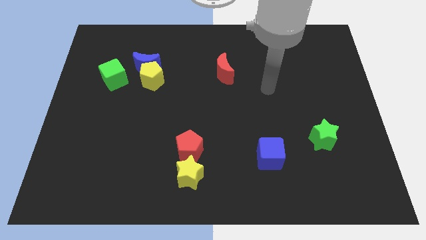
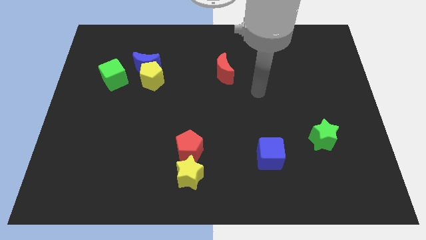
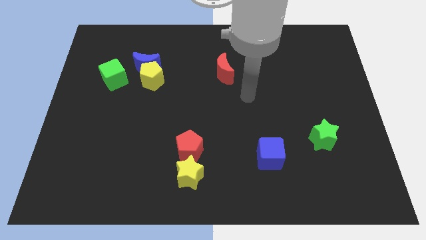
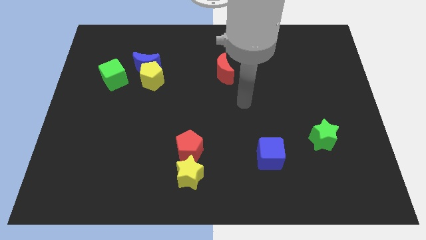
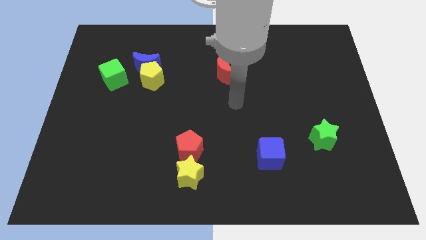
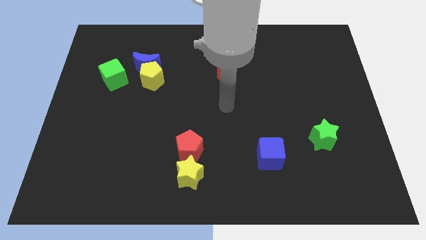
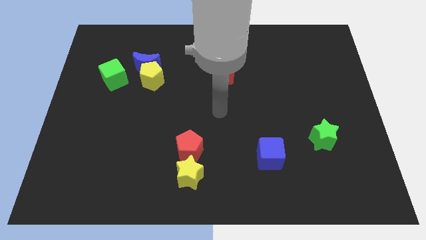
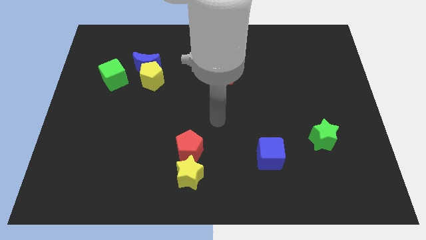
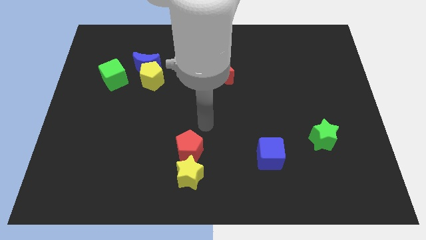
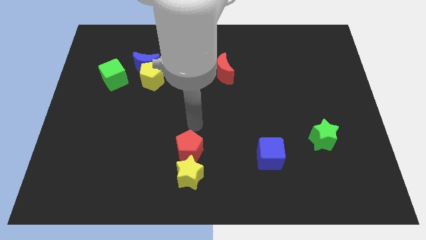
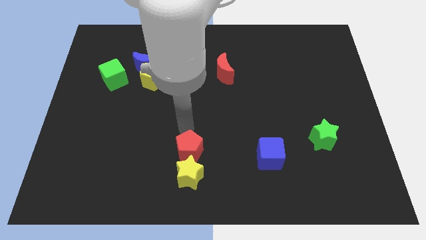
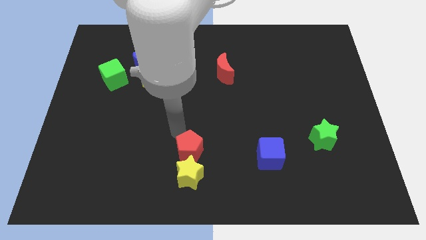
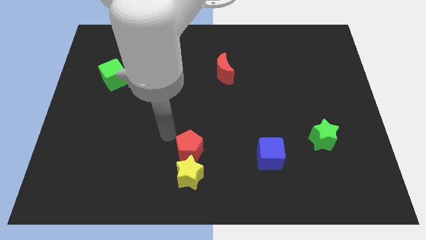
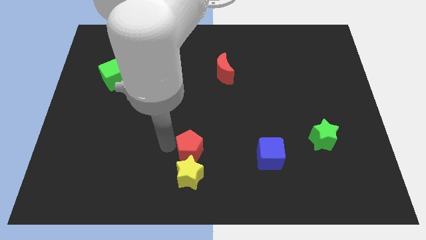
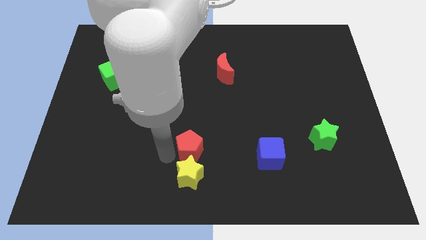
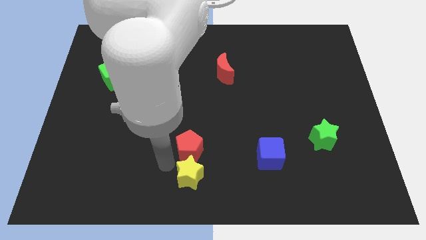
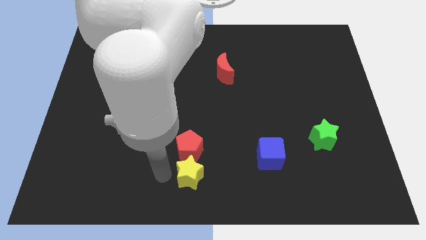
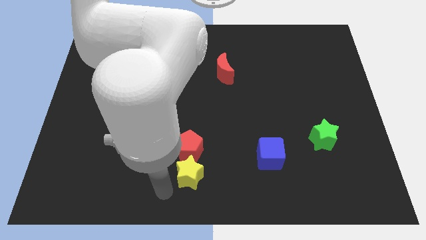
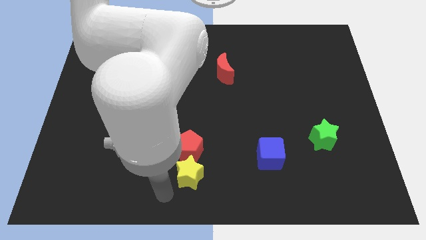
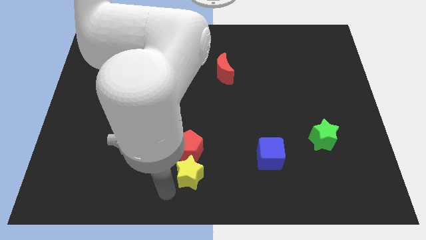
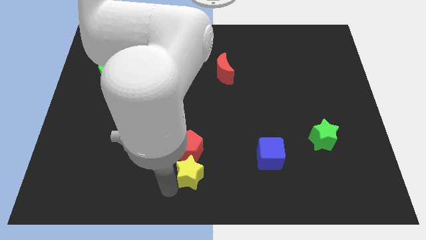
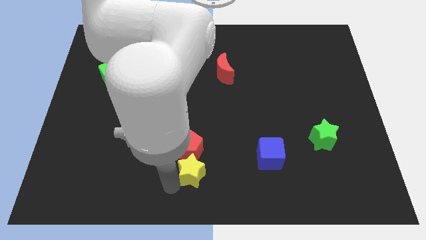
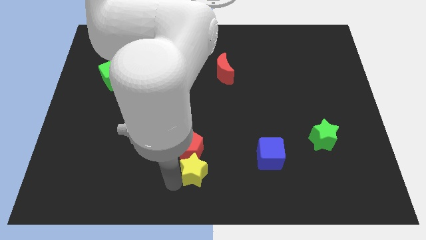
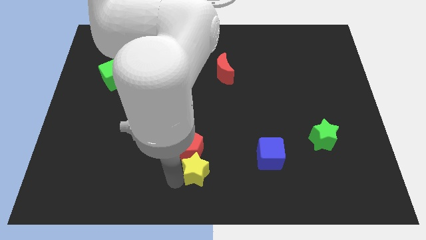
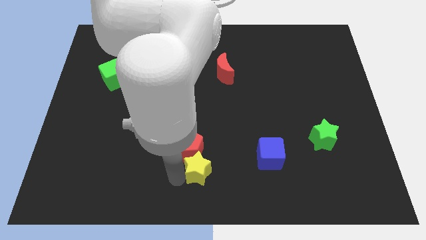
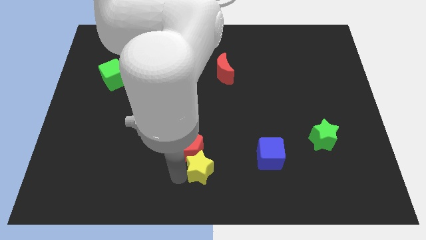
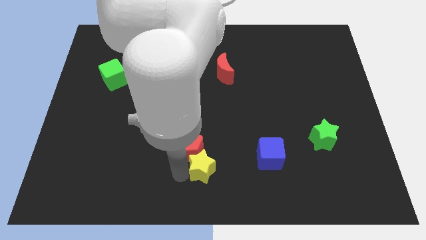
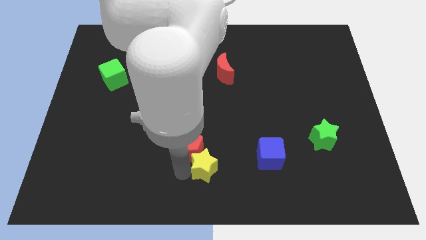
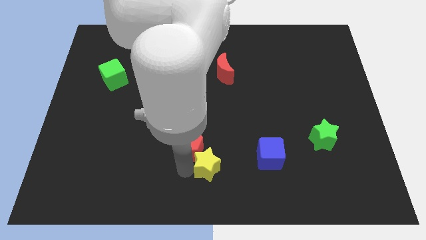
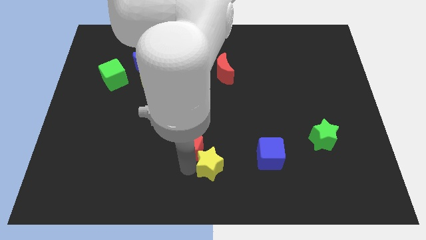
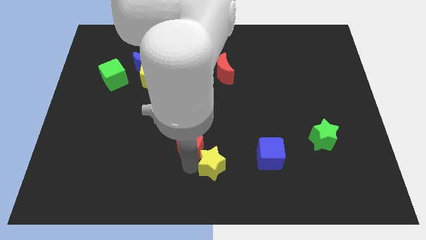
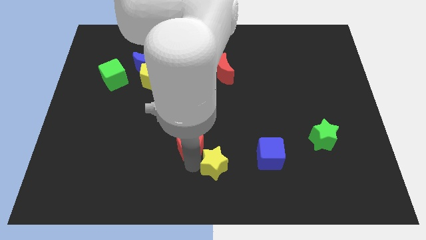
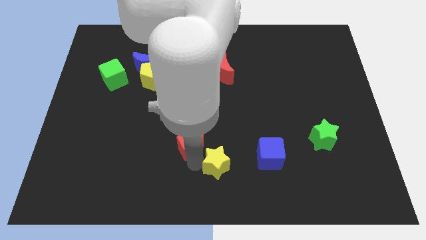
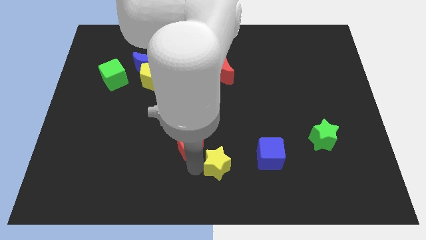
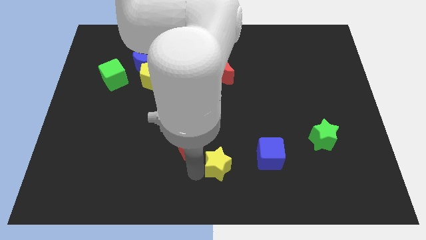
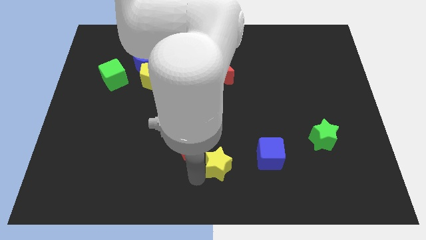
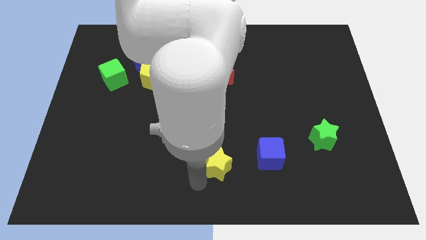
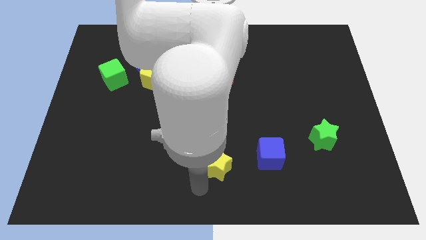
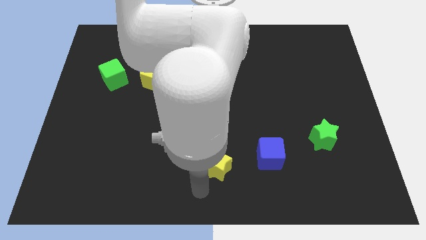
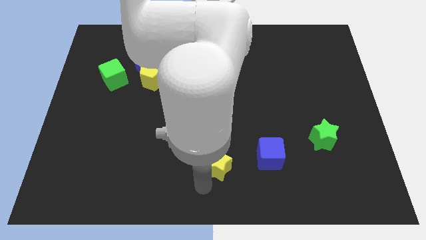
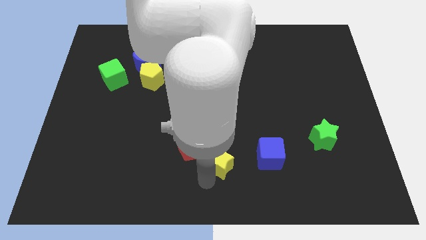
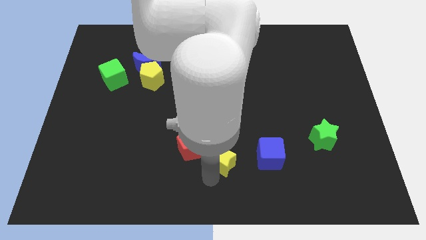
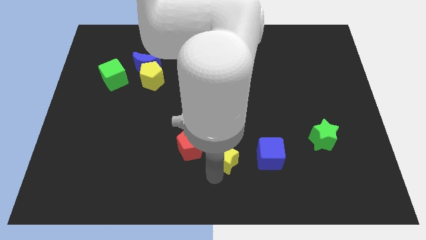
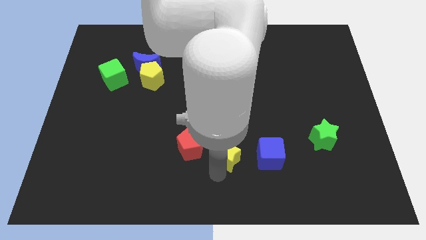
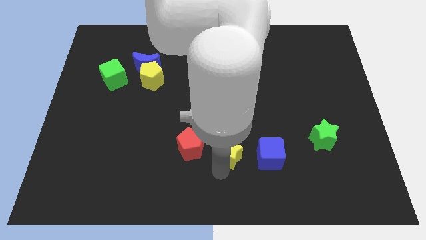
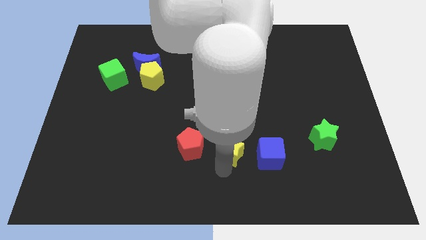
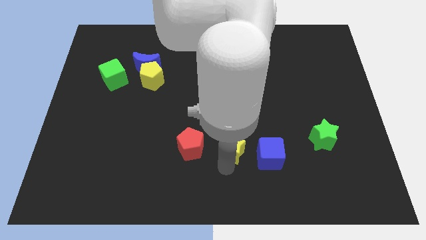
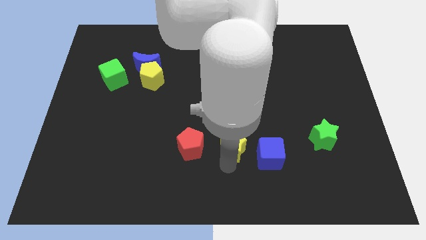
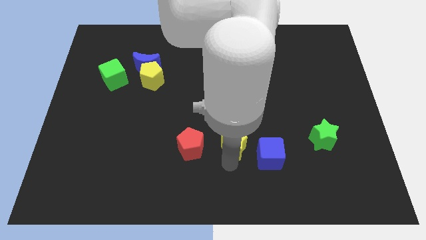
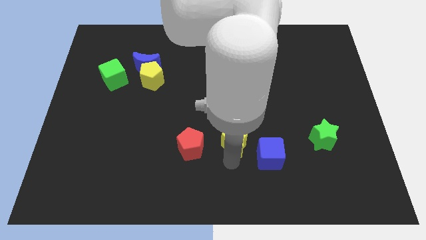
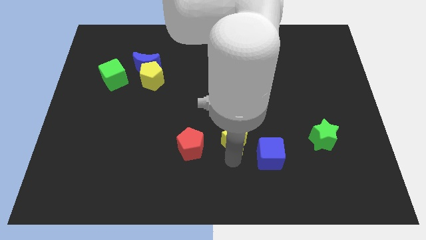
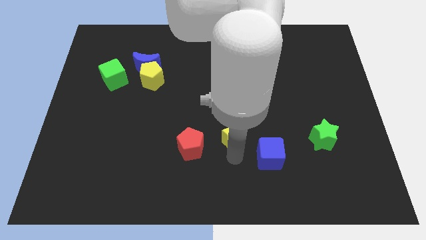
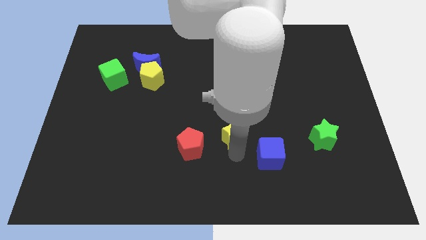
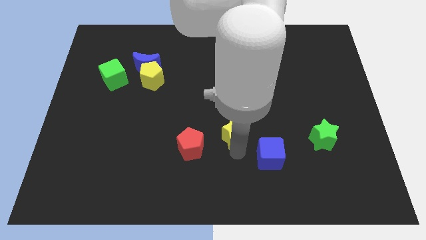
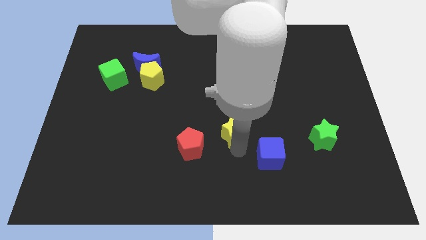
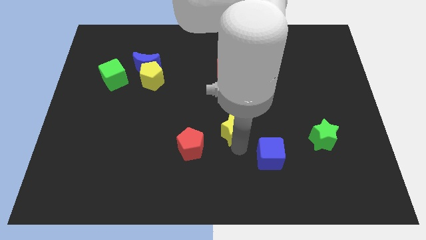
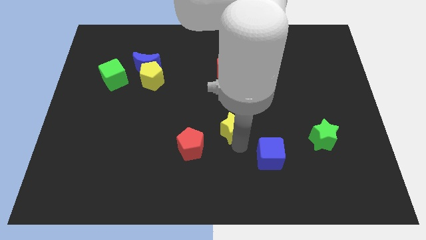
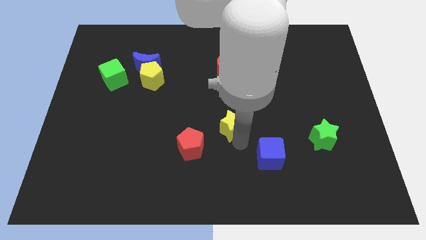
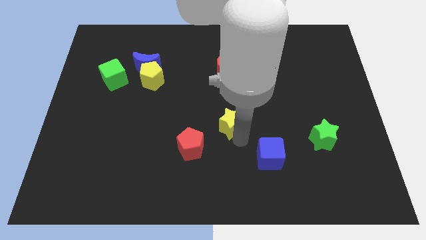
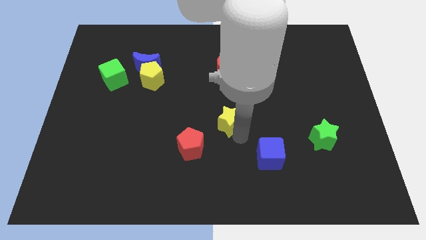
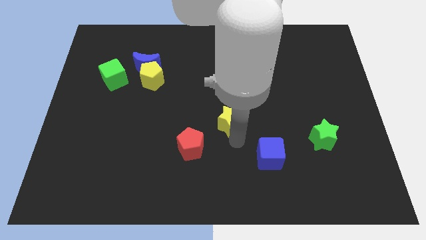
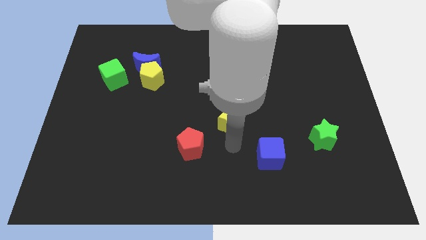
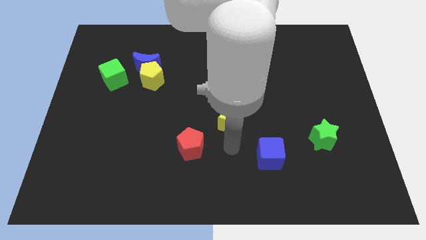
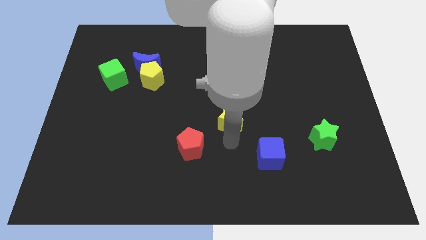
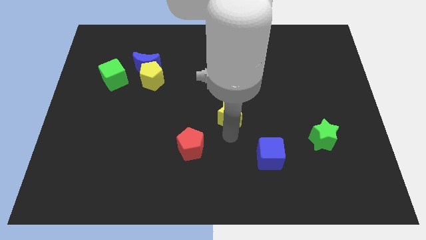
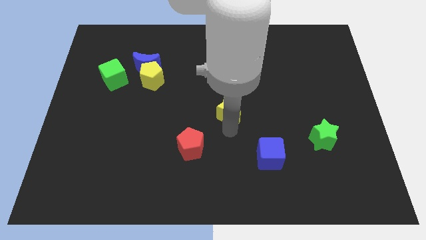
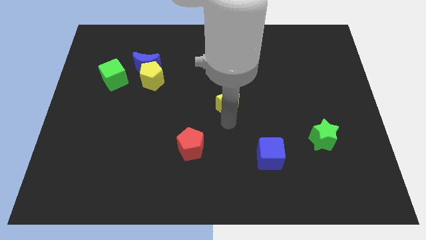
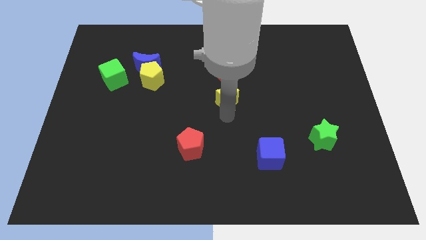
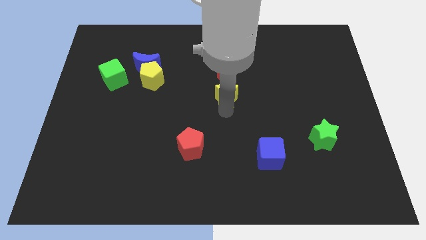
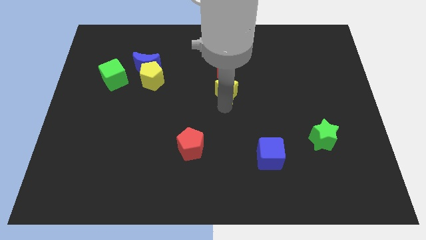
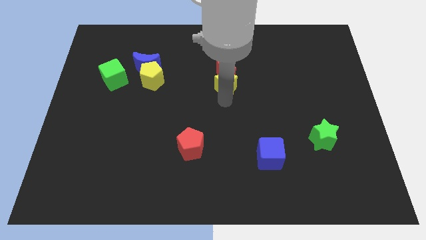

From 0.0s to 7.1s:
push the yellow star to the red moon
